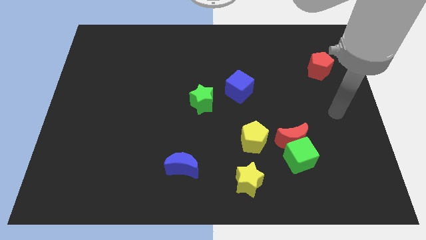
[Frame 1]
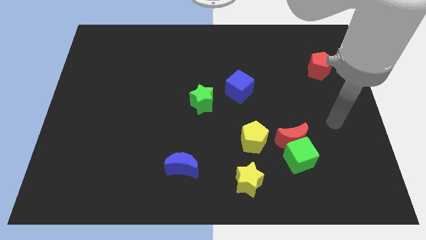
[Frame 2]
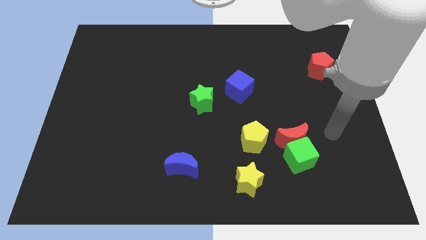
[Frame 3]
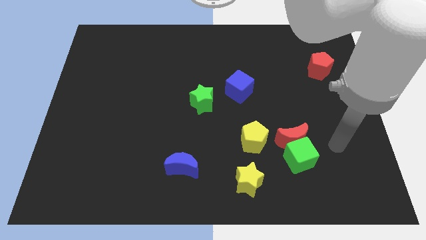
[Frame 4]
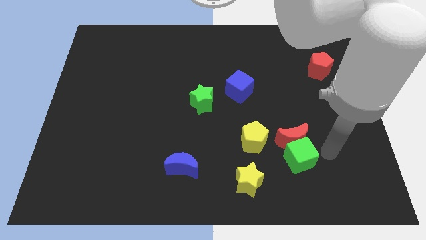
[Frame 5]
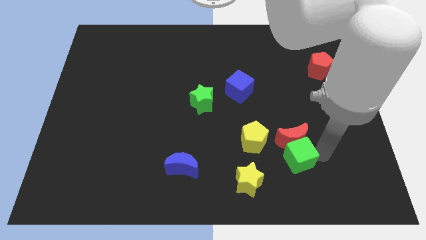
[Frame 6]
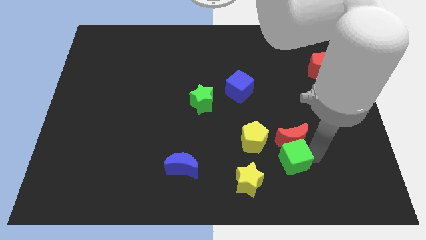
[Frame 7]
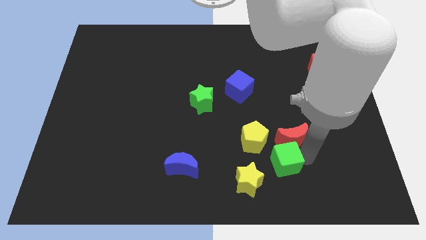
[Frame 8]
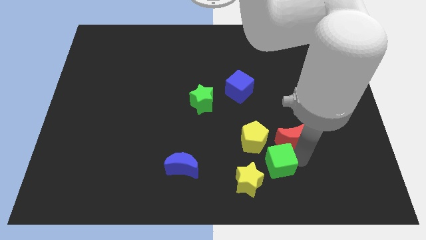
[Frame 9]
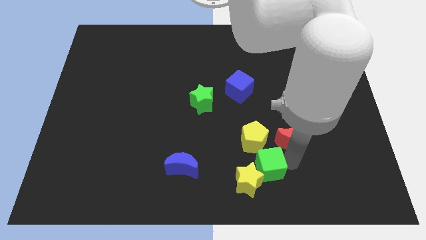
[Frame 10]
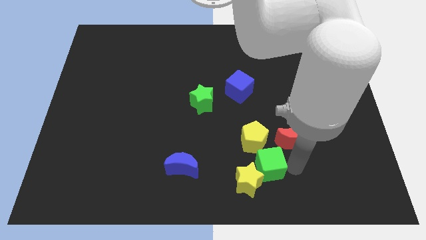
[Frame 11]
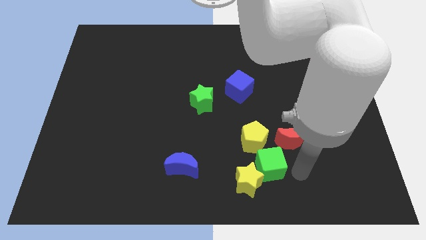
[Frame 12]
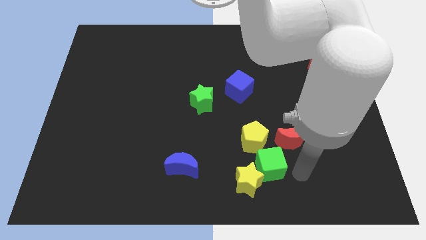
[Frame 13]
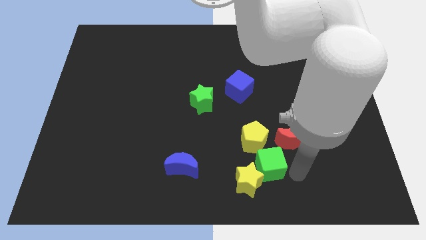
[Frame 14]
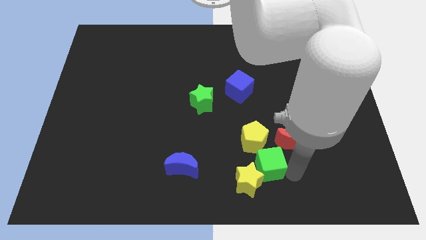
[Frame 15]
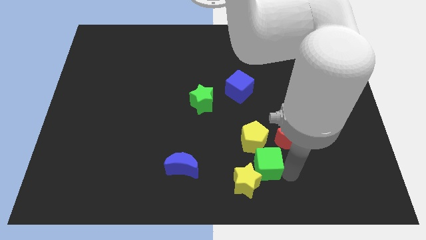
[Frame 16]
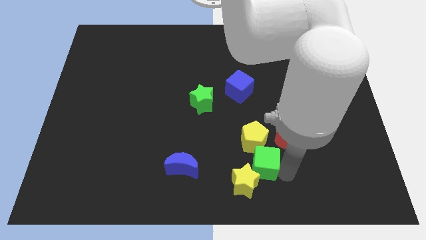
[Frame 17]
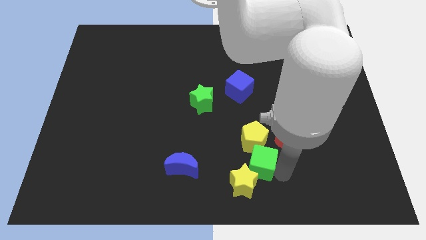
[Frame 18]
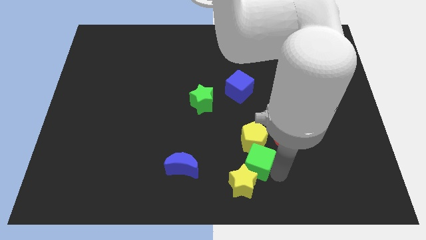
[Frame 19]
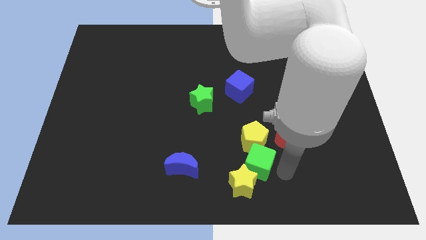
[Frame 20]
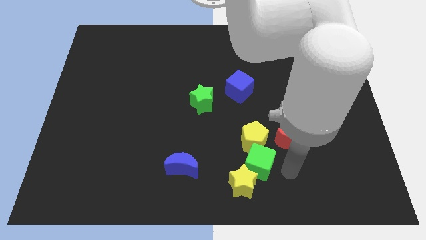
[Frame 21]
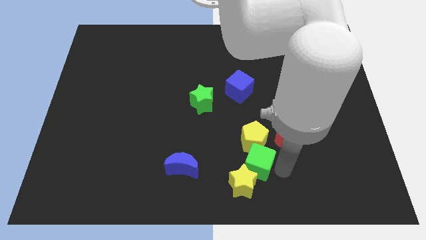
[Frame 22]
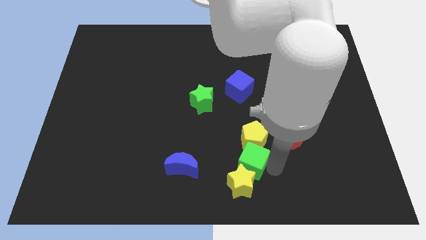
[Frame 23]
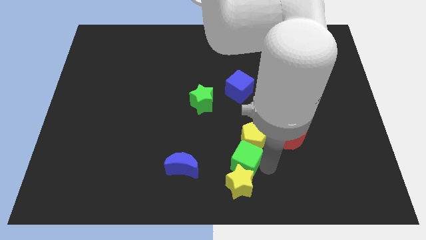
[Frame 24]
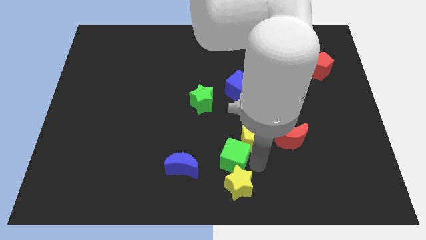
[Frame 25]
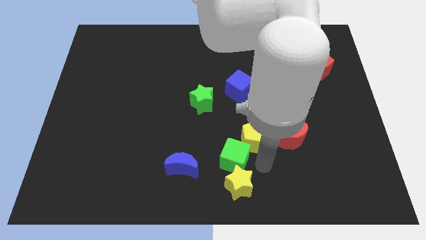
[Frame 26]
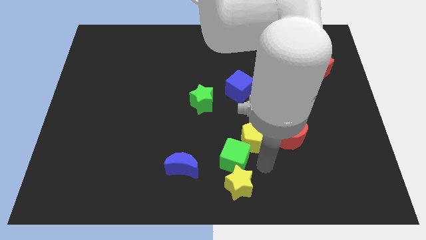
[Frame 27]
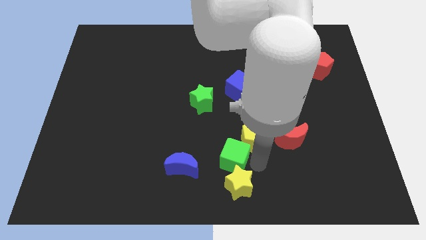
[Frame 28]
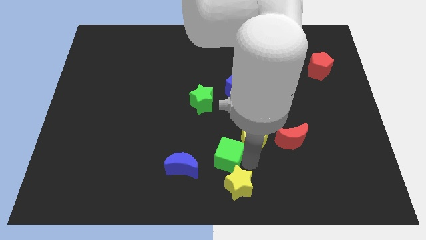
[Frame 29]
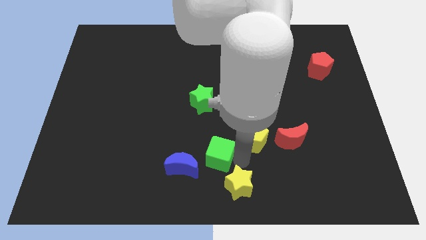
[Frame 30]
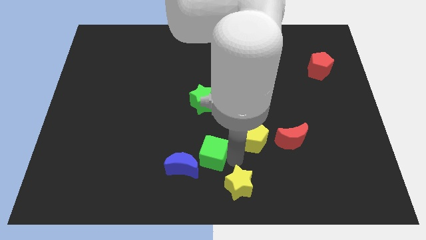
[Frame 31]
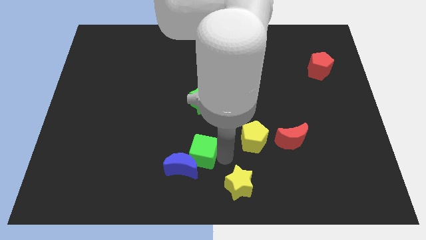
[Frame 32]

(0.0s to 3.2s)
move the green cube to the left

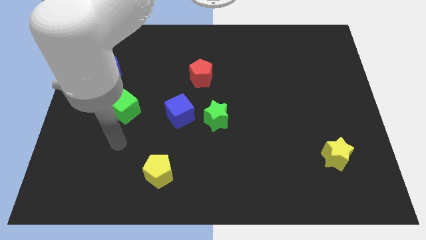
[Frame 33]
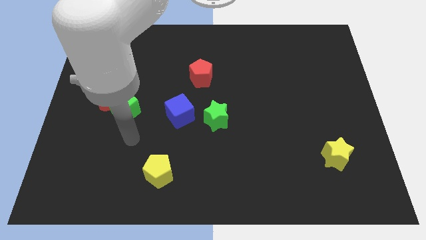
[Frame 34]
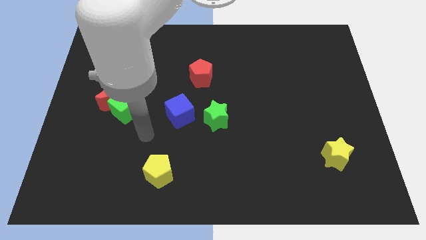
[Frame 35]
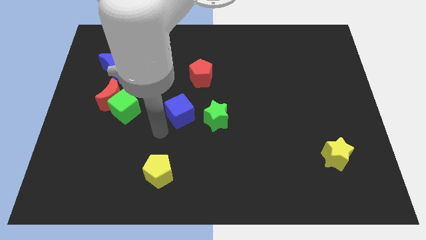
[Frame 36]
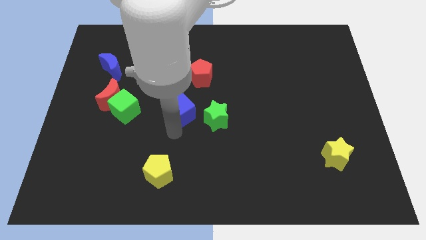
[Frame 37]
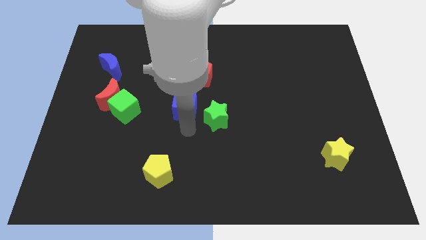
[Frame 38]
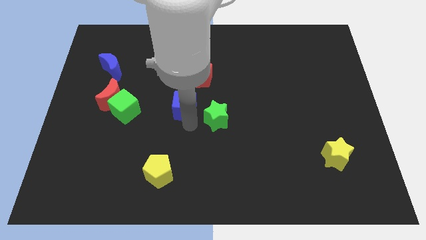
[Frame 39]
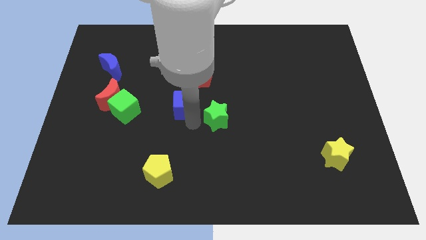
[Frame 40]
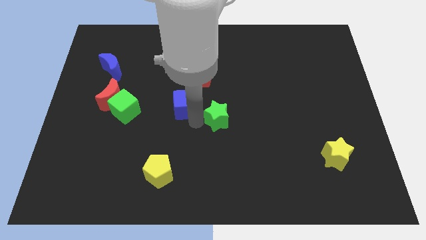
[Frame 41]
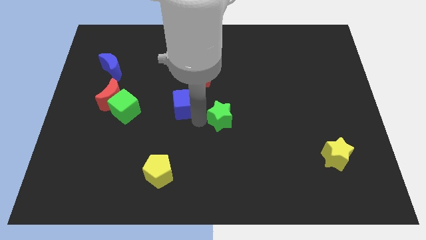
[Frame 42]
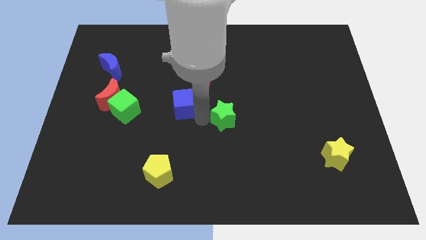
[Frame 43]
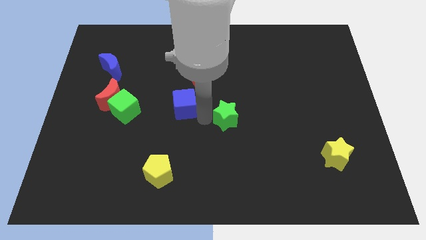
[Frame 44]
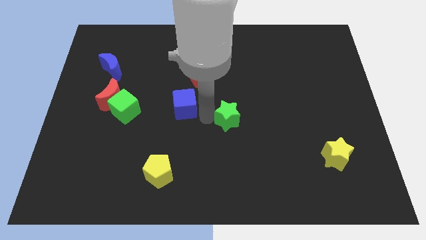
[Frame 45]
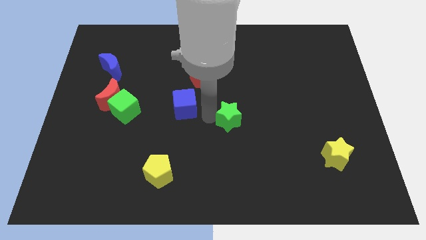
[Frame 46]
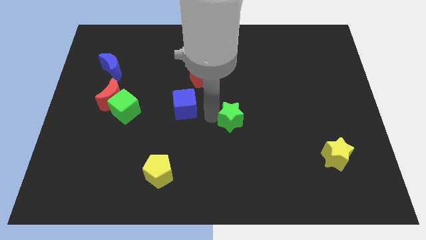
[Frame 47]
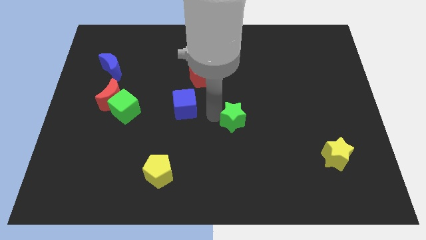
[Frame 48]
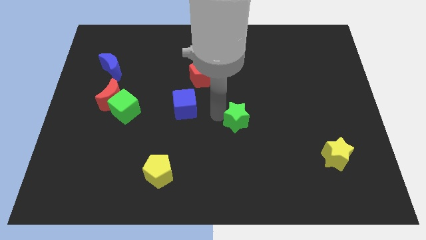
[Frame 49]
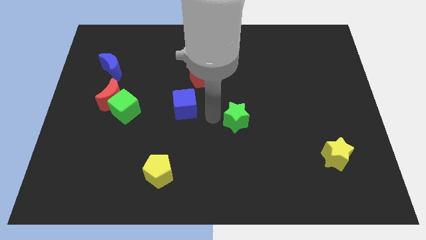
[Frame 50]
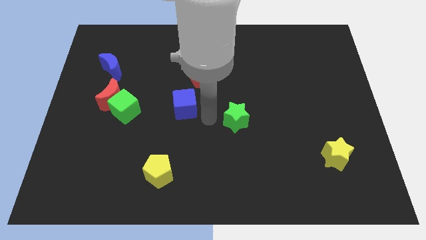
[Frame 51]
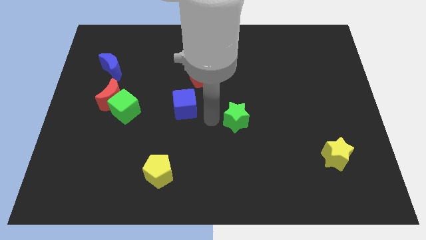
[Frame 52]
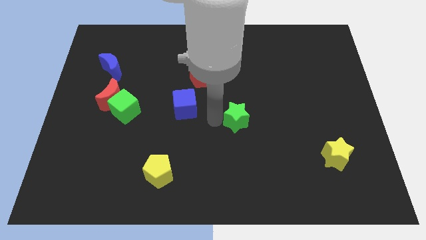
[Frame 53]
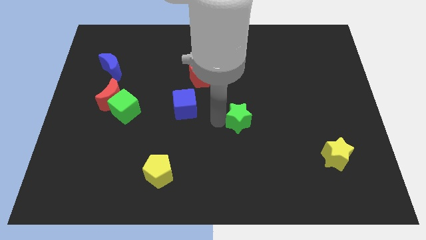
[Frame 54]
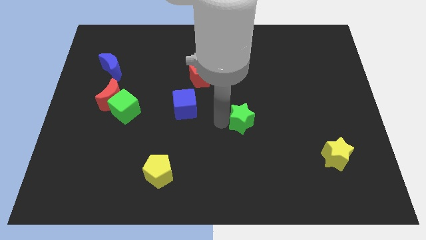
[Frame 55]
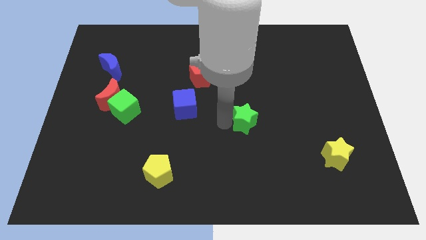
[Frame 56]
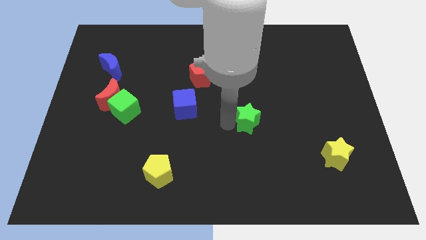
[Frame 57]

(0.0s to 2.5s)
slide the green star a bit right

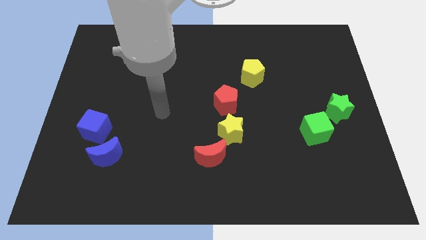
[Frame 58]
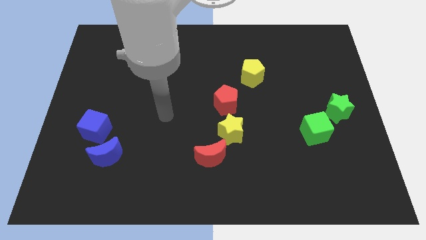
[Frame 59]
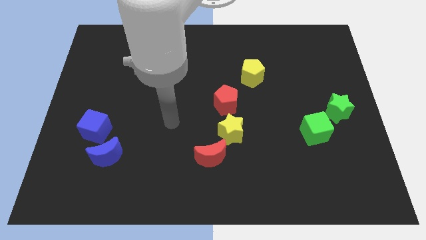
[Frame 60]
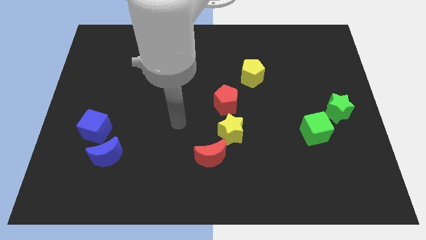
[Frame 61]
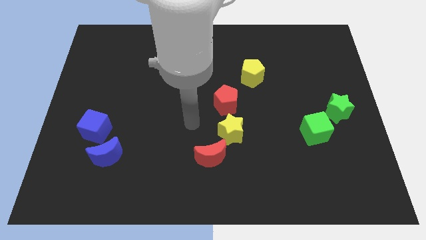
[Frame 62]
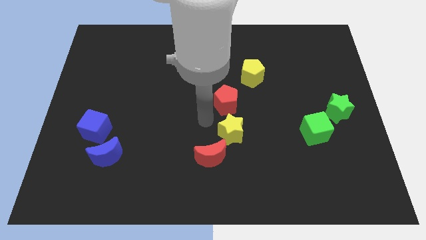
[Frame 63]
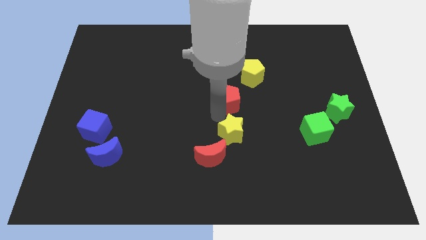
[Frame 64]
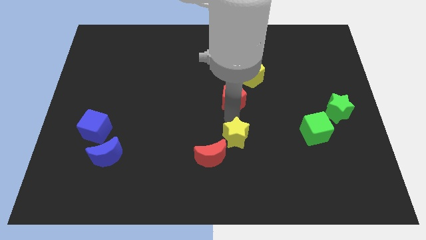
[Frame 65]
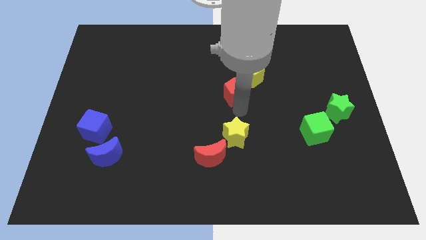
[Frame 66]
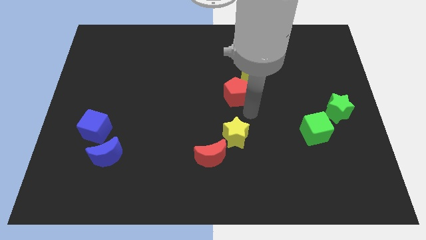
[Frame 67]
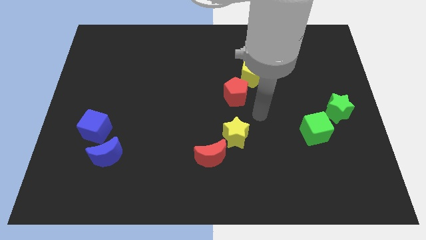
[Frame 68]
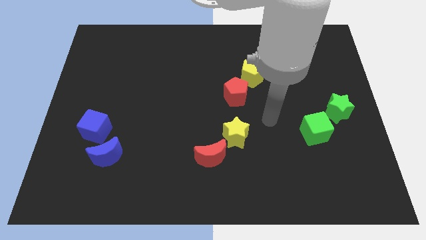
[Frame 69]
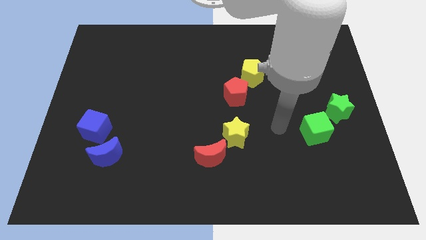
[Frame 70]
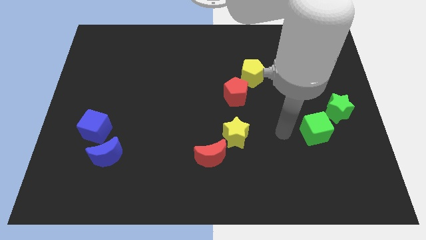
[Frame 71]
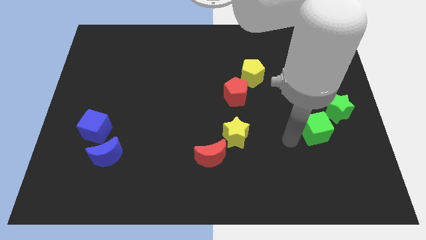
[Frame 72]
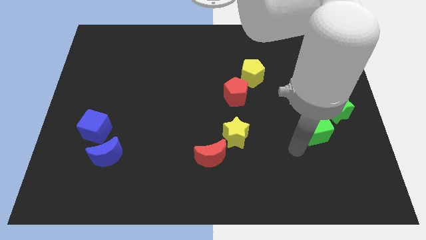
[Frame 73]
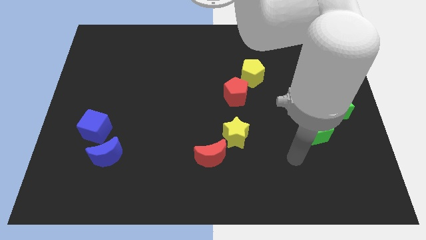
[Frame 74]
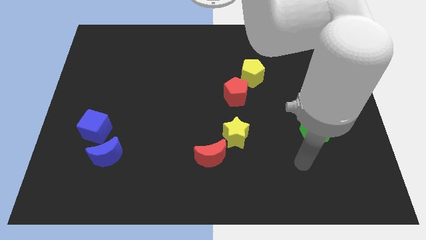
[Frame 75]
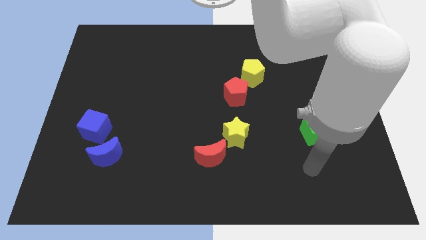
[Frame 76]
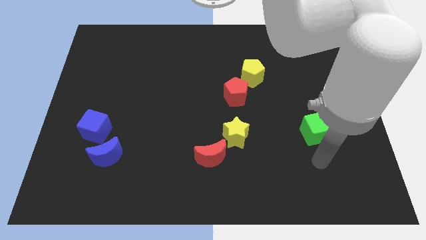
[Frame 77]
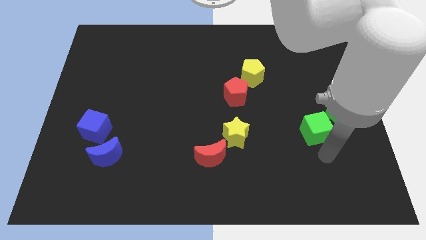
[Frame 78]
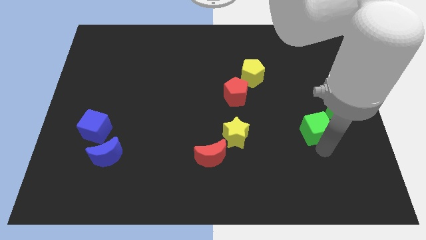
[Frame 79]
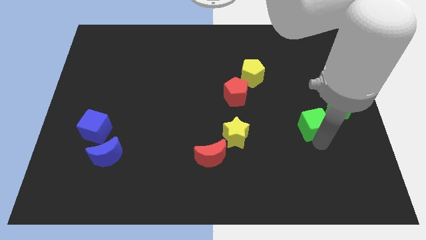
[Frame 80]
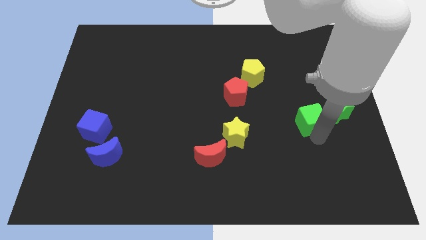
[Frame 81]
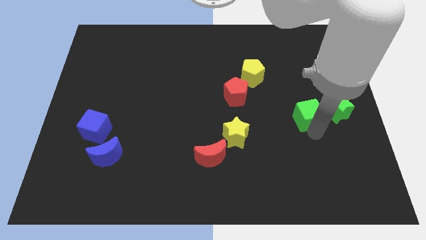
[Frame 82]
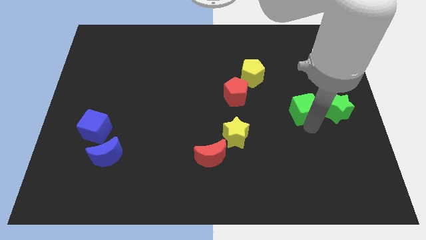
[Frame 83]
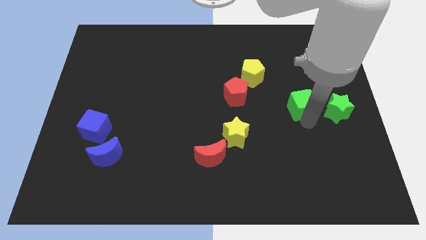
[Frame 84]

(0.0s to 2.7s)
push the green cube up a little bit
